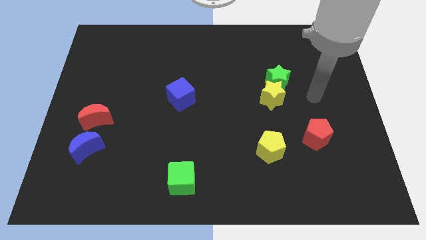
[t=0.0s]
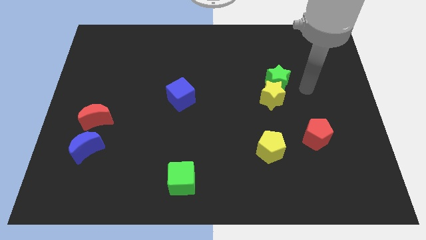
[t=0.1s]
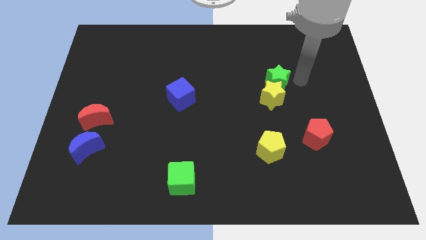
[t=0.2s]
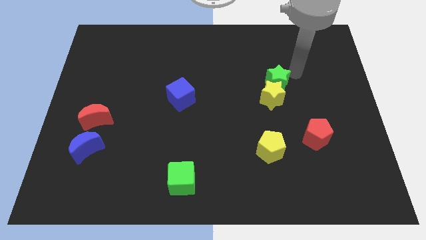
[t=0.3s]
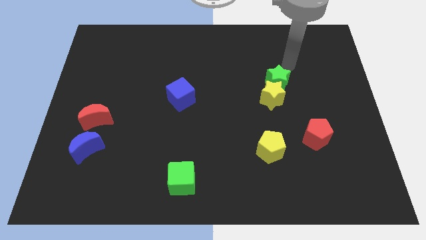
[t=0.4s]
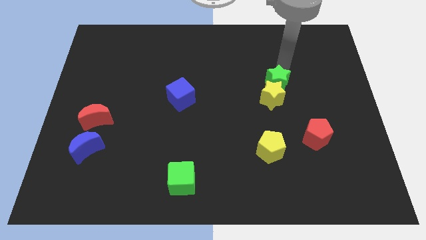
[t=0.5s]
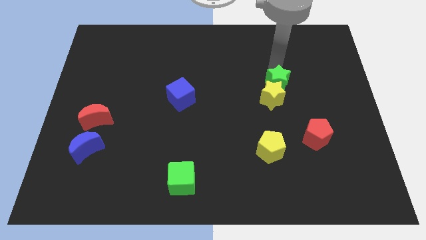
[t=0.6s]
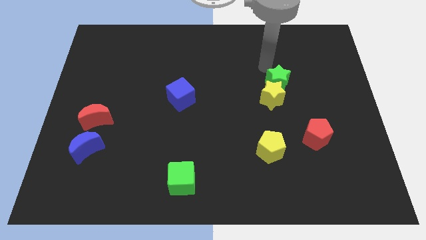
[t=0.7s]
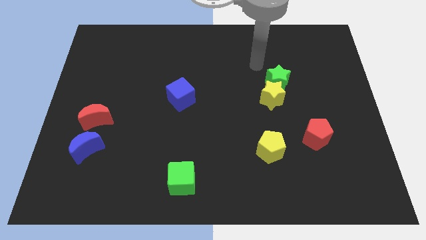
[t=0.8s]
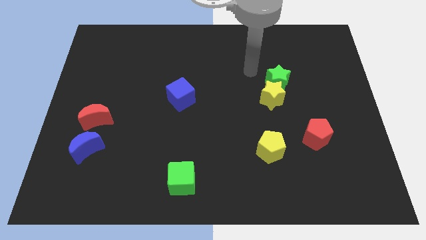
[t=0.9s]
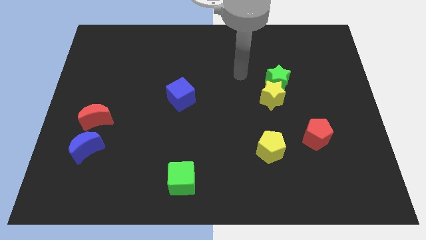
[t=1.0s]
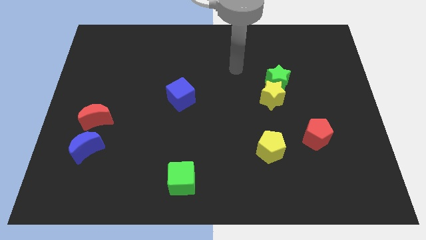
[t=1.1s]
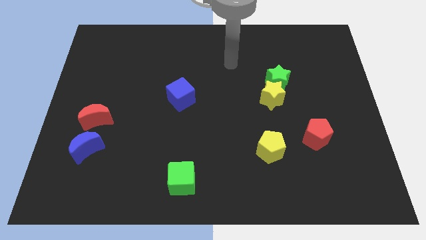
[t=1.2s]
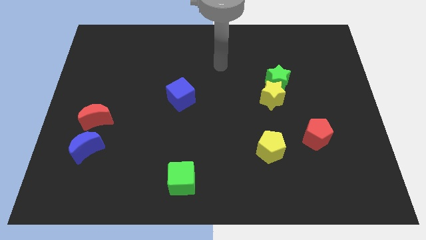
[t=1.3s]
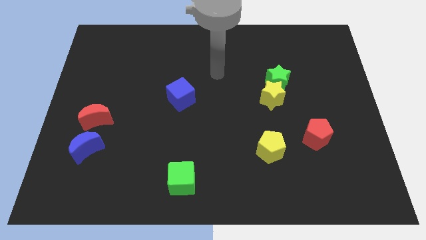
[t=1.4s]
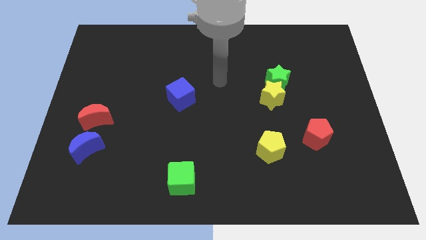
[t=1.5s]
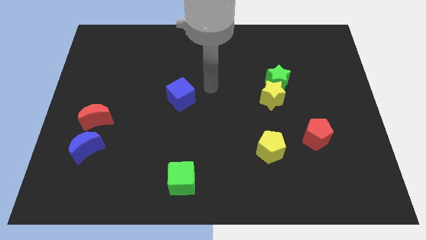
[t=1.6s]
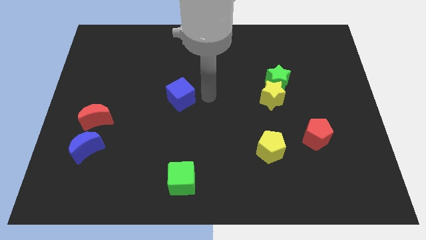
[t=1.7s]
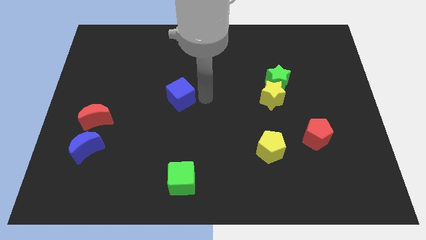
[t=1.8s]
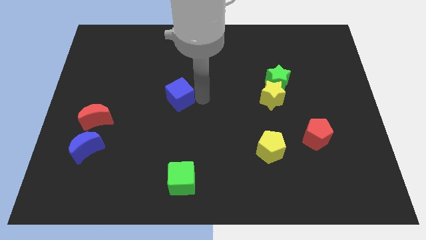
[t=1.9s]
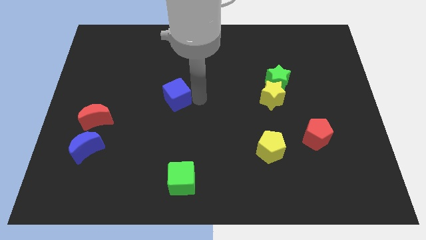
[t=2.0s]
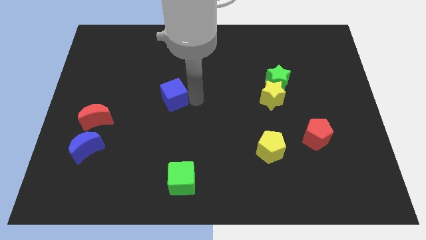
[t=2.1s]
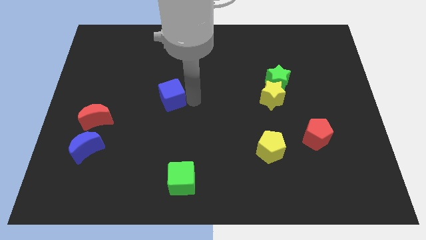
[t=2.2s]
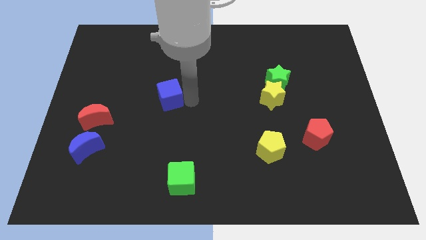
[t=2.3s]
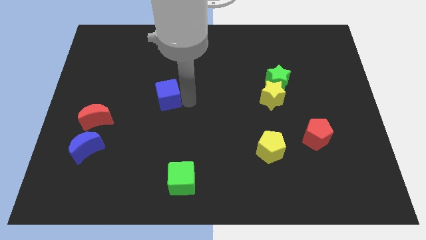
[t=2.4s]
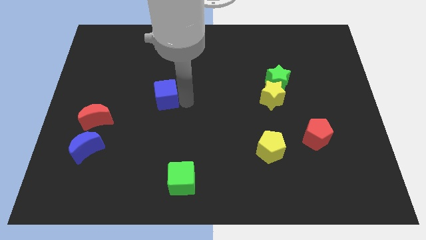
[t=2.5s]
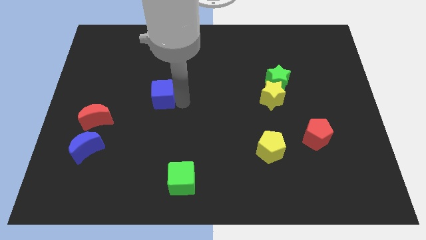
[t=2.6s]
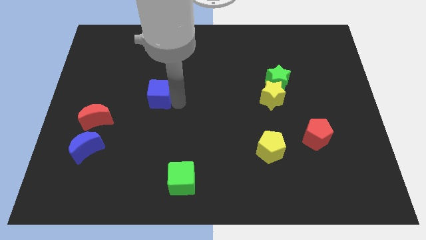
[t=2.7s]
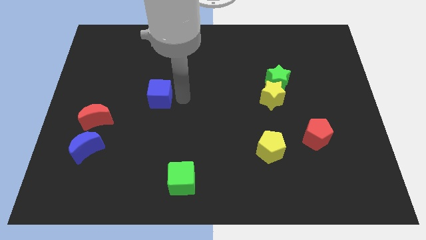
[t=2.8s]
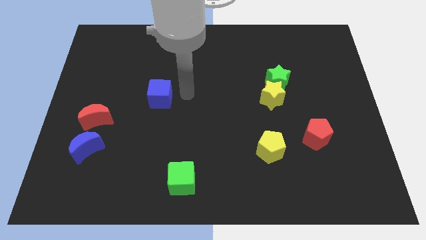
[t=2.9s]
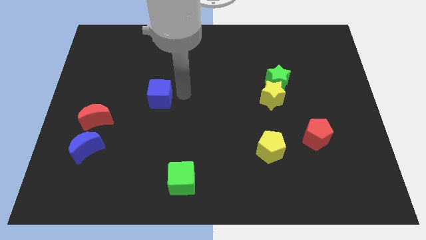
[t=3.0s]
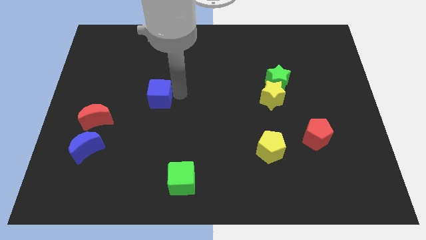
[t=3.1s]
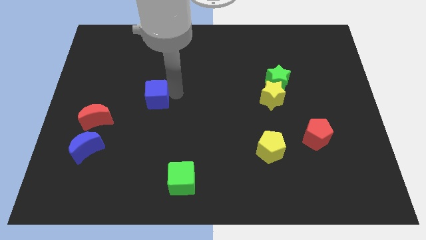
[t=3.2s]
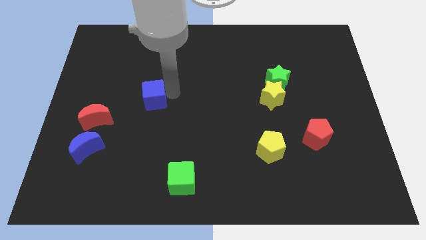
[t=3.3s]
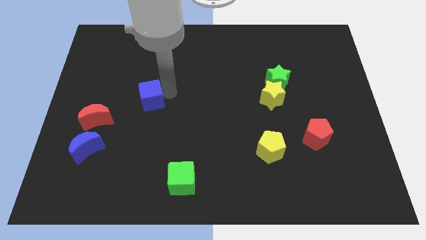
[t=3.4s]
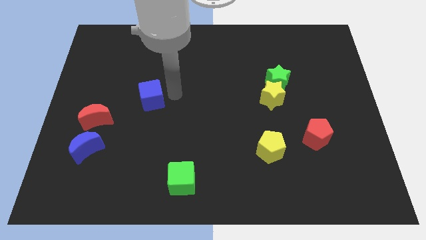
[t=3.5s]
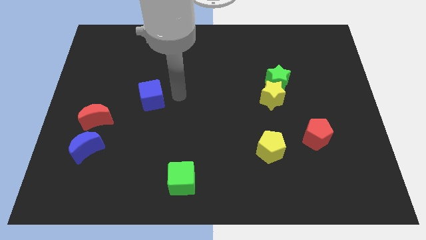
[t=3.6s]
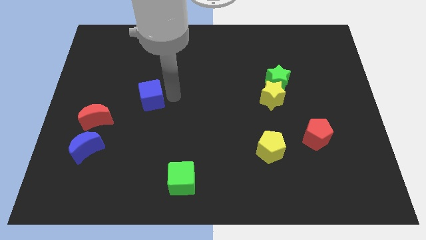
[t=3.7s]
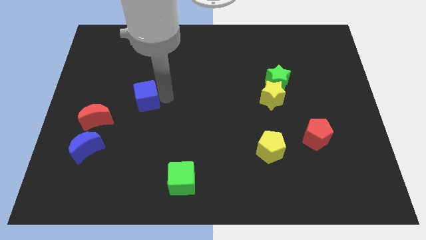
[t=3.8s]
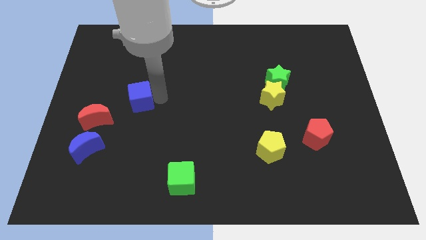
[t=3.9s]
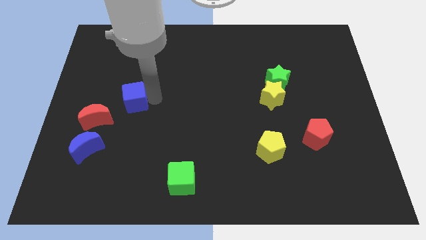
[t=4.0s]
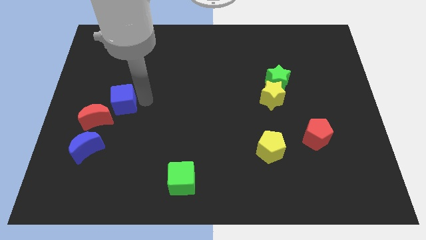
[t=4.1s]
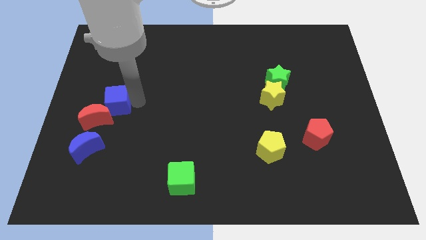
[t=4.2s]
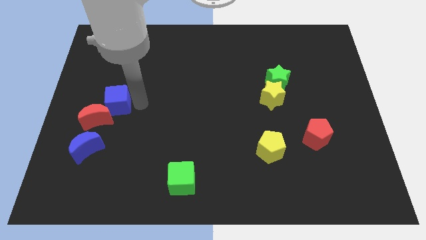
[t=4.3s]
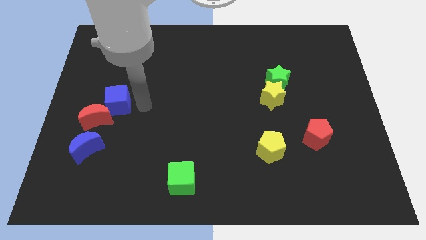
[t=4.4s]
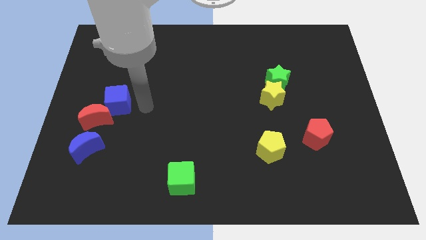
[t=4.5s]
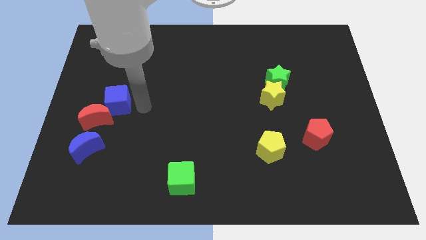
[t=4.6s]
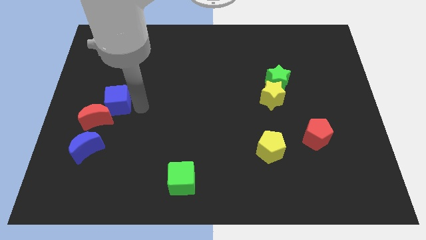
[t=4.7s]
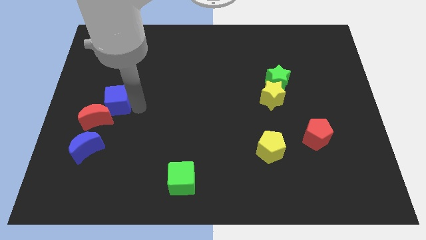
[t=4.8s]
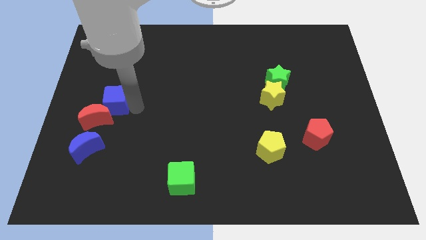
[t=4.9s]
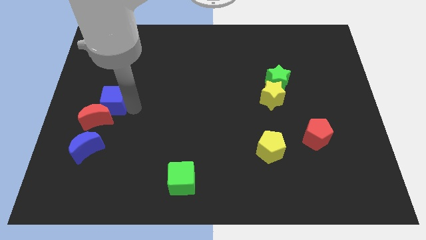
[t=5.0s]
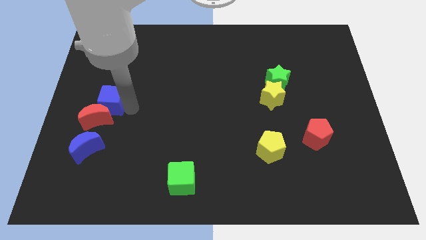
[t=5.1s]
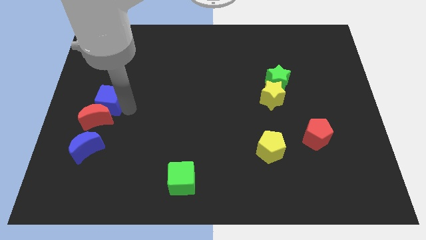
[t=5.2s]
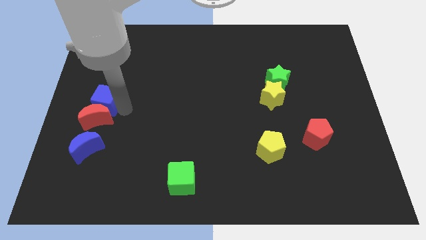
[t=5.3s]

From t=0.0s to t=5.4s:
put the blue cube to the center left

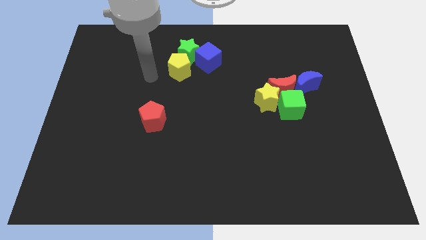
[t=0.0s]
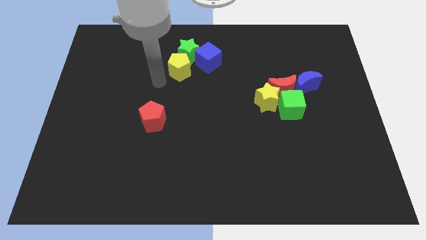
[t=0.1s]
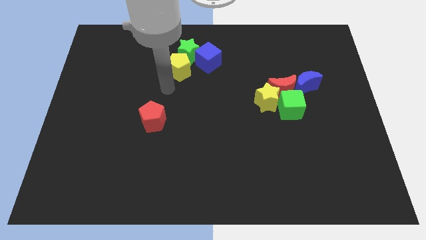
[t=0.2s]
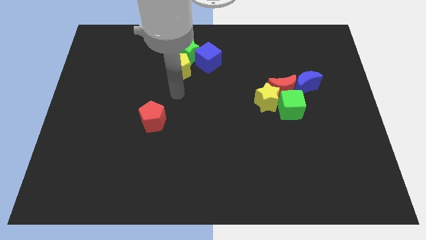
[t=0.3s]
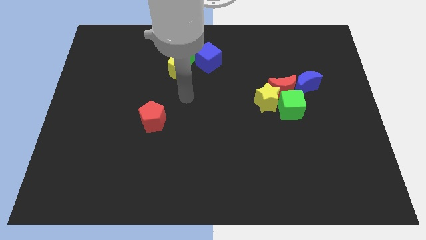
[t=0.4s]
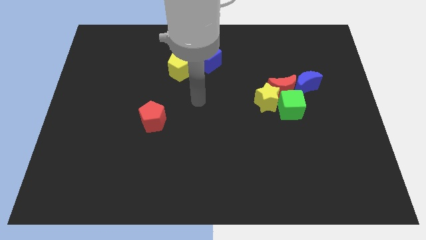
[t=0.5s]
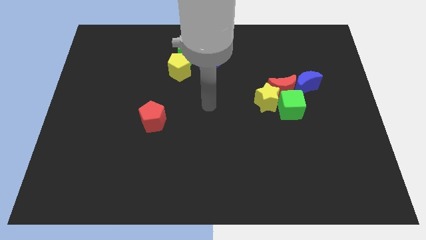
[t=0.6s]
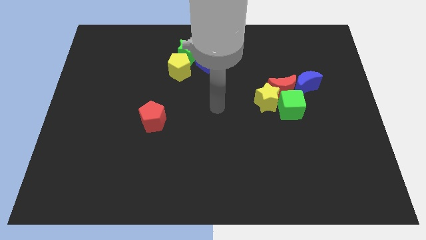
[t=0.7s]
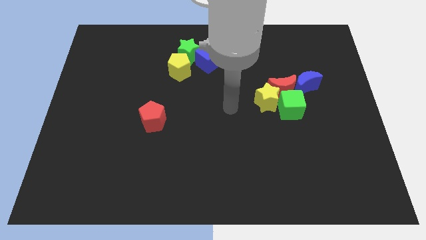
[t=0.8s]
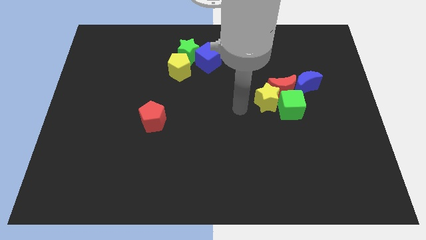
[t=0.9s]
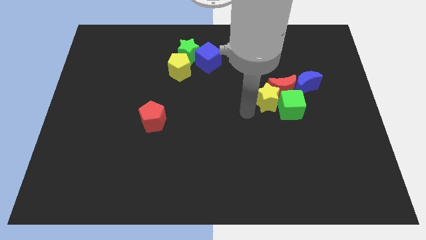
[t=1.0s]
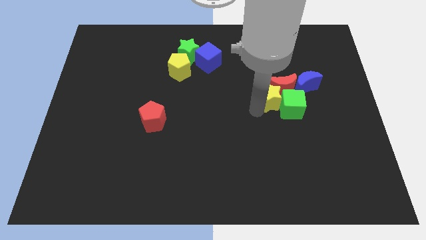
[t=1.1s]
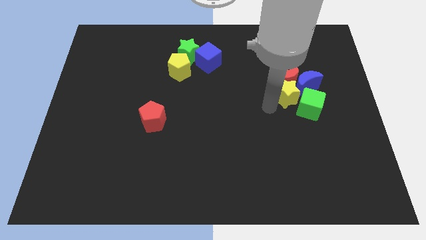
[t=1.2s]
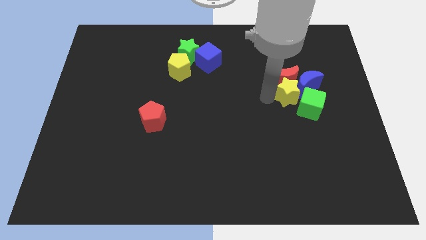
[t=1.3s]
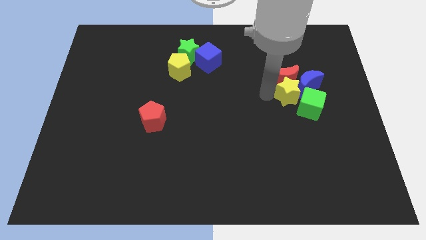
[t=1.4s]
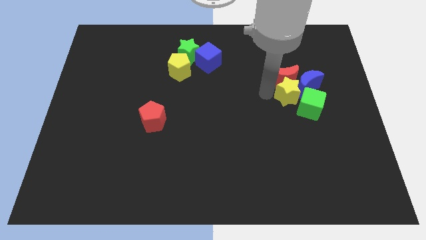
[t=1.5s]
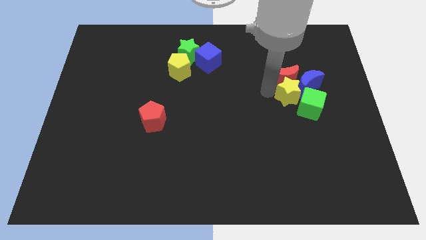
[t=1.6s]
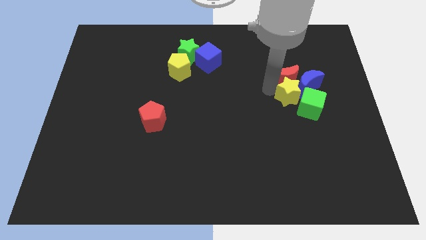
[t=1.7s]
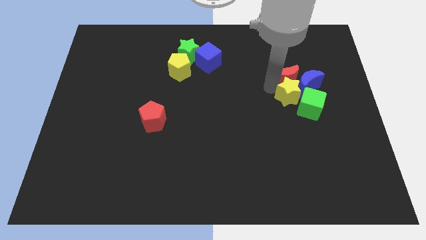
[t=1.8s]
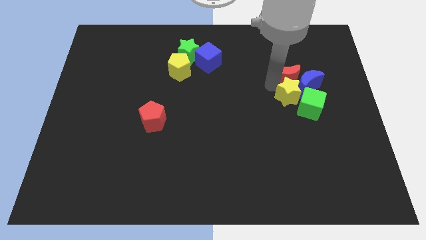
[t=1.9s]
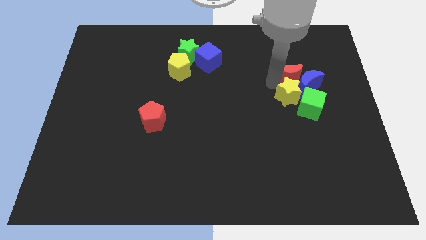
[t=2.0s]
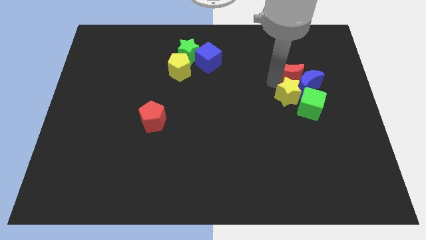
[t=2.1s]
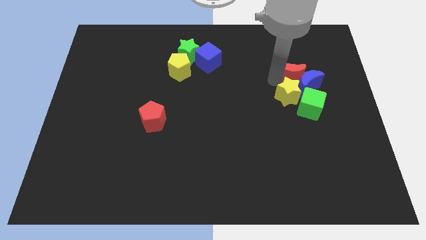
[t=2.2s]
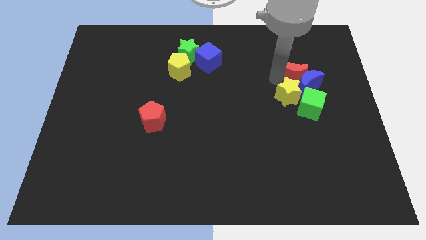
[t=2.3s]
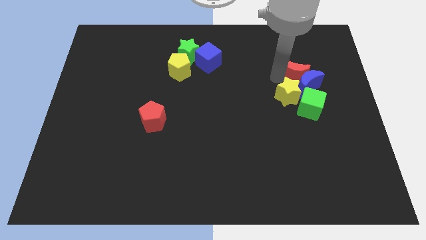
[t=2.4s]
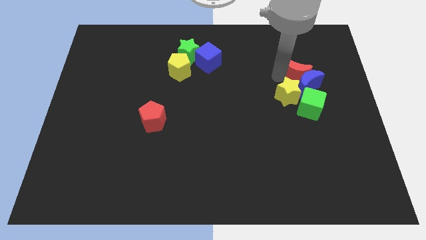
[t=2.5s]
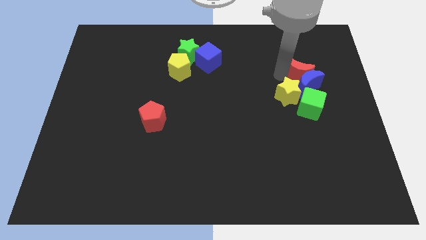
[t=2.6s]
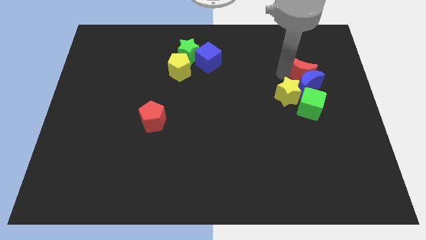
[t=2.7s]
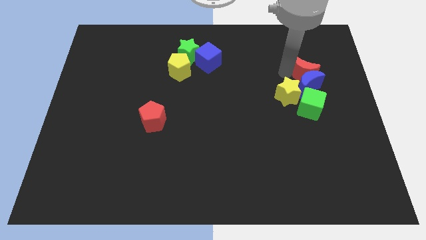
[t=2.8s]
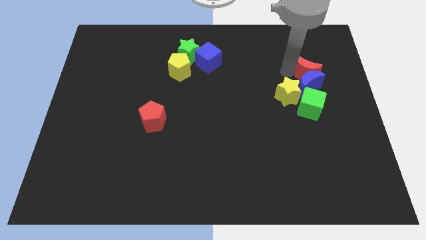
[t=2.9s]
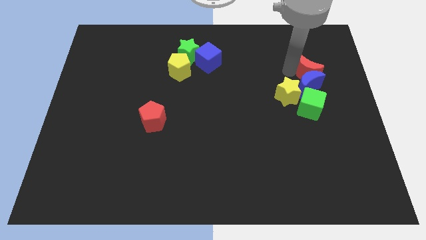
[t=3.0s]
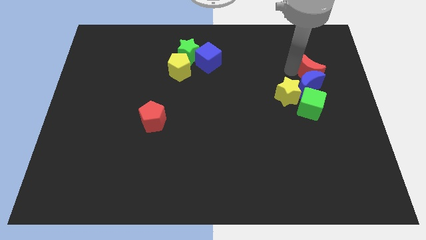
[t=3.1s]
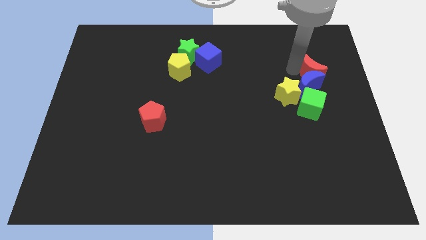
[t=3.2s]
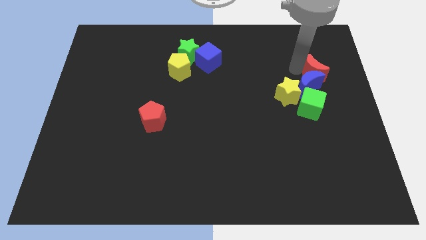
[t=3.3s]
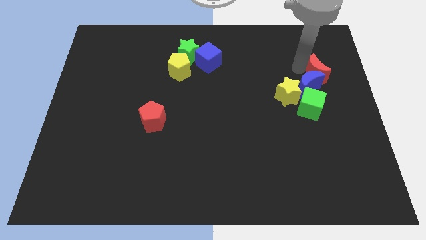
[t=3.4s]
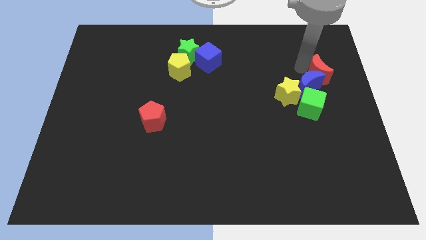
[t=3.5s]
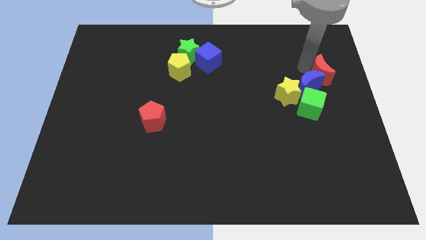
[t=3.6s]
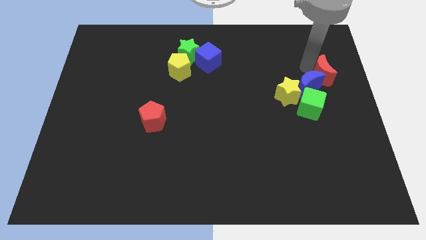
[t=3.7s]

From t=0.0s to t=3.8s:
push the red moon to the center right
